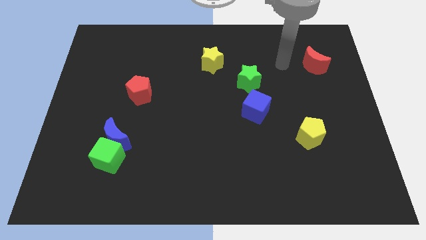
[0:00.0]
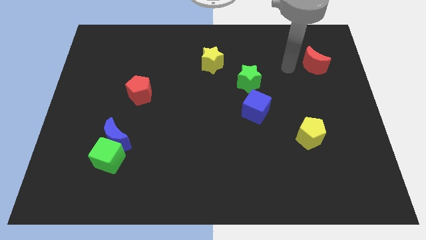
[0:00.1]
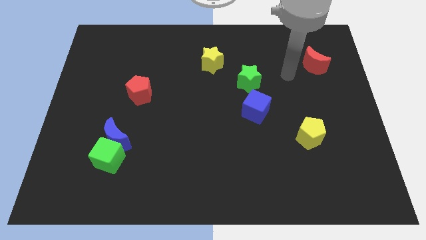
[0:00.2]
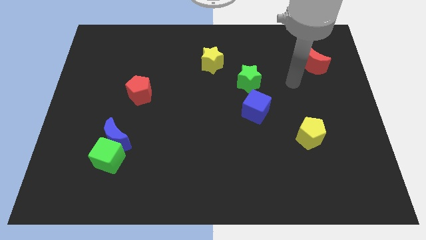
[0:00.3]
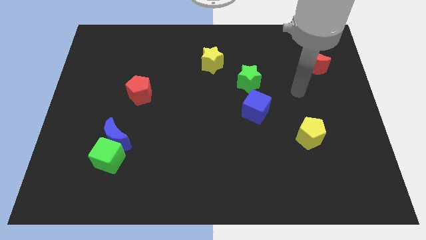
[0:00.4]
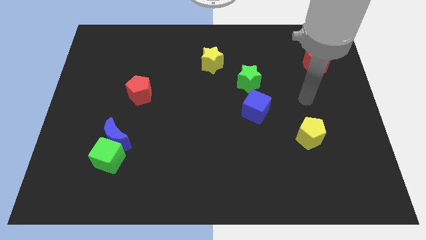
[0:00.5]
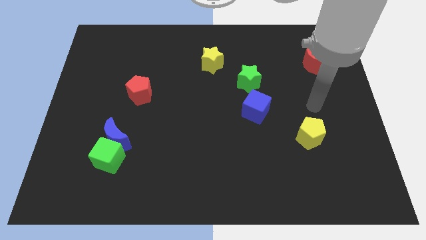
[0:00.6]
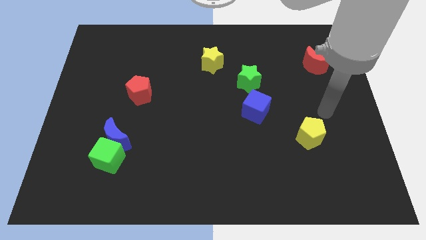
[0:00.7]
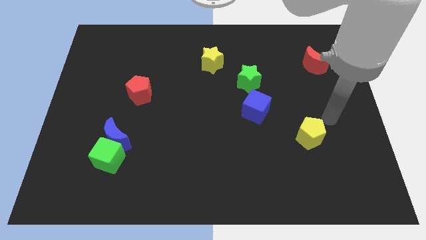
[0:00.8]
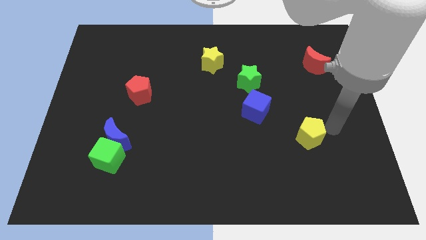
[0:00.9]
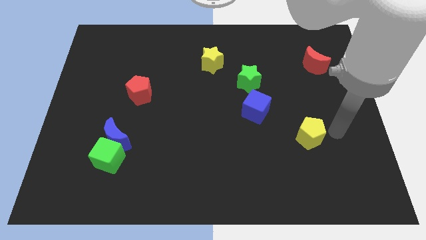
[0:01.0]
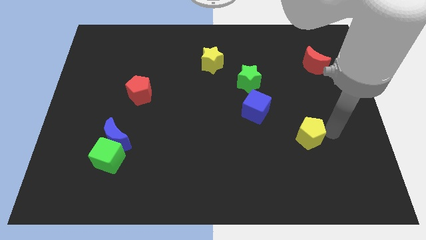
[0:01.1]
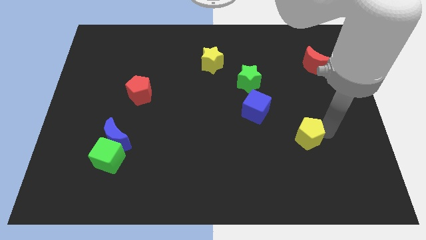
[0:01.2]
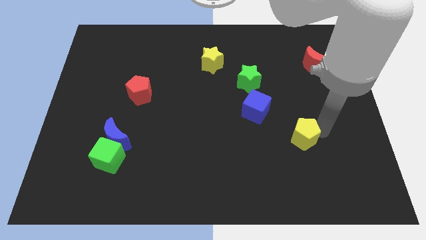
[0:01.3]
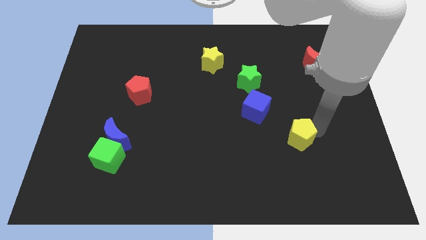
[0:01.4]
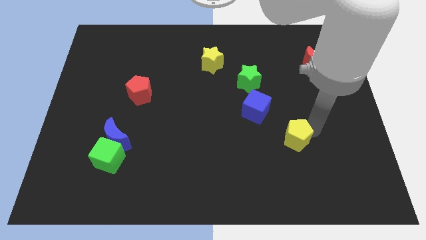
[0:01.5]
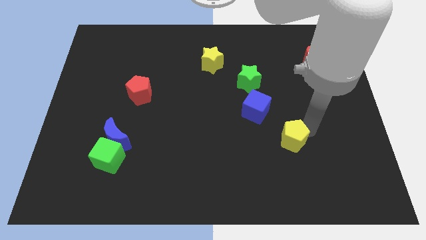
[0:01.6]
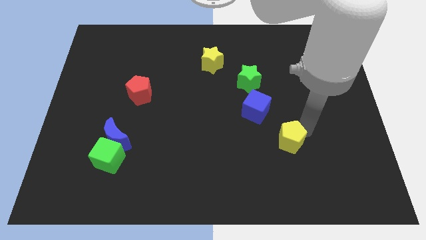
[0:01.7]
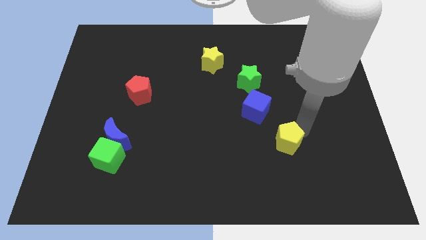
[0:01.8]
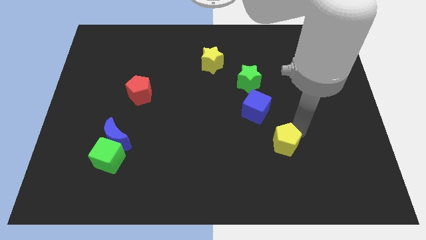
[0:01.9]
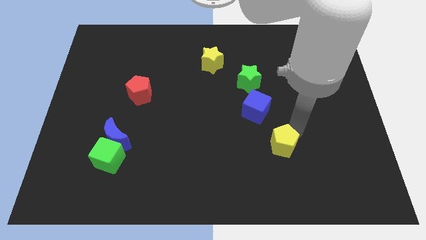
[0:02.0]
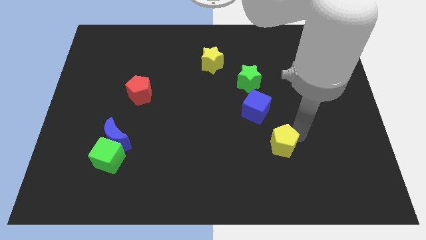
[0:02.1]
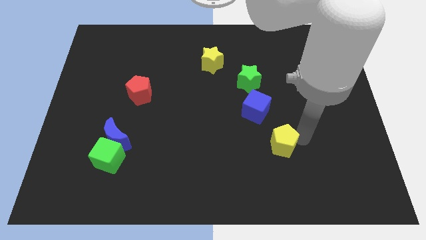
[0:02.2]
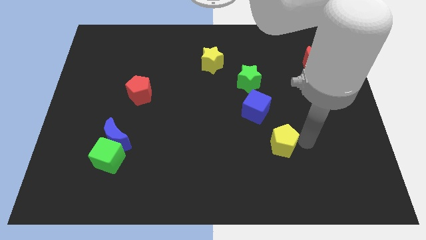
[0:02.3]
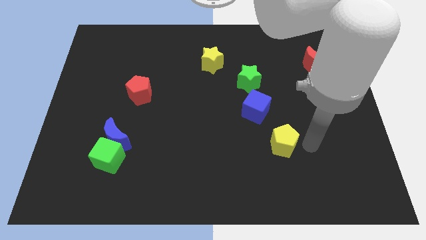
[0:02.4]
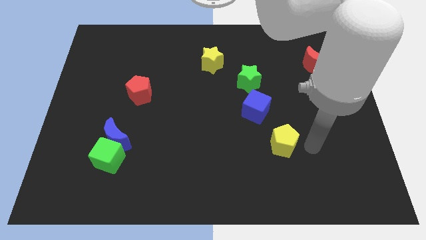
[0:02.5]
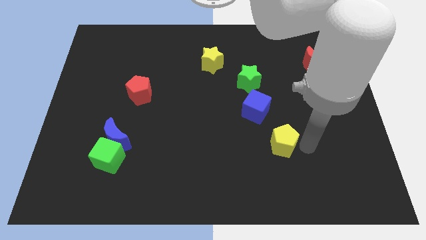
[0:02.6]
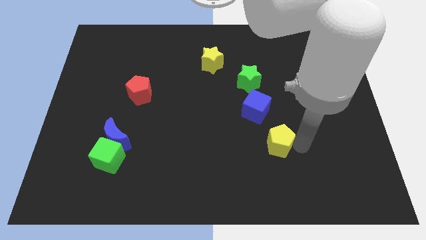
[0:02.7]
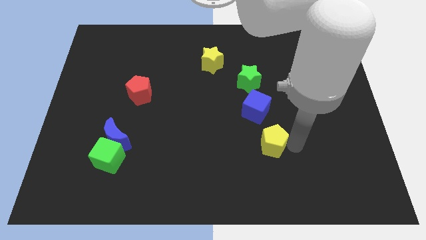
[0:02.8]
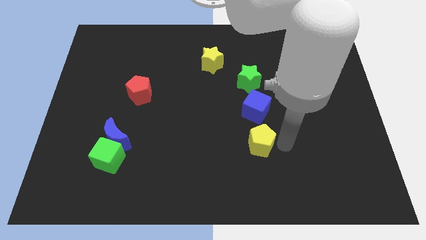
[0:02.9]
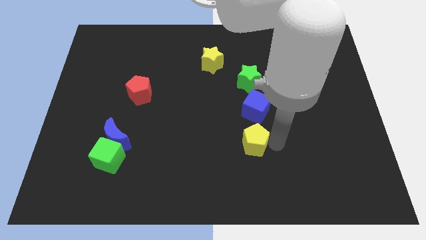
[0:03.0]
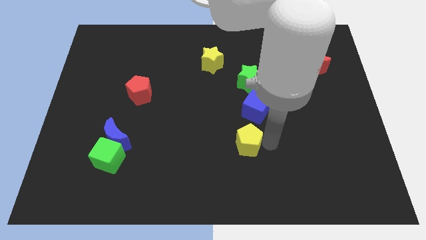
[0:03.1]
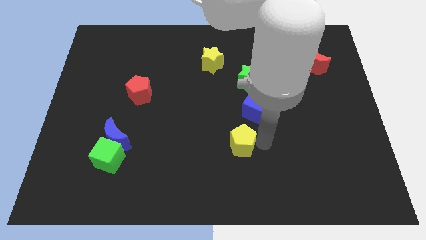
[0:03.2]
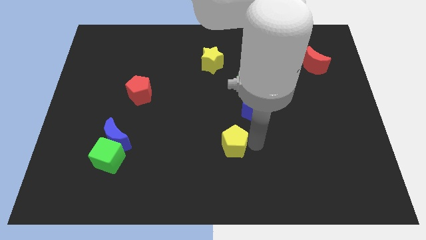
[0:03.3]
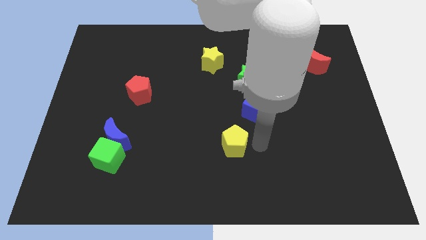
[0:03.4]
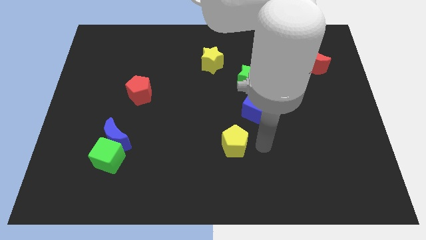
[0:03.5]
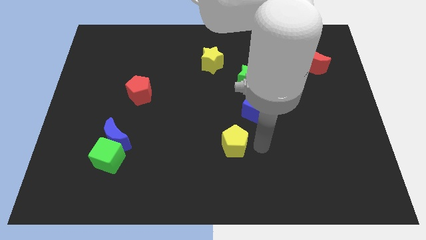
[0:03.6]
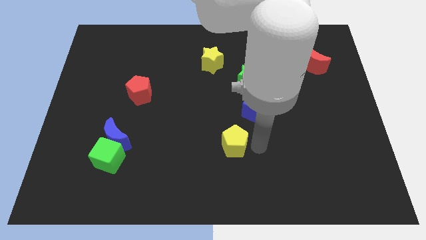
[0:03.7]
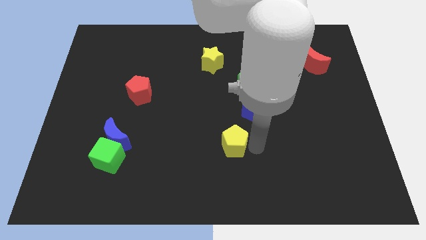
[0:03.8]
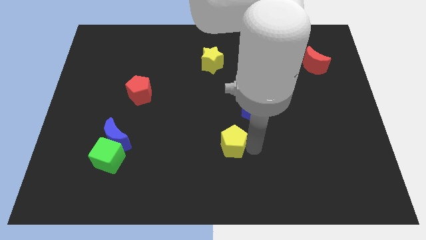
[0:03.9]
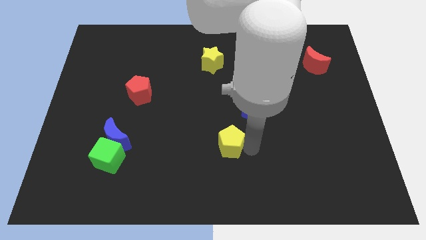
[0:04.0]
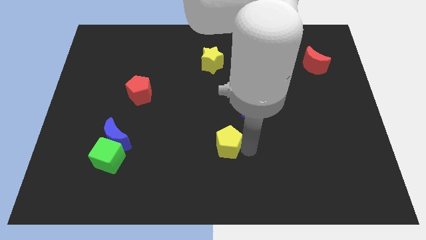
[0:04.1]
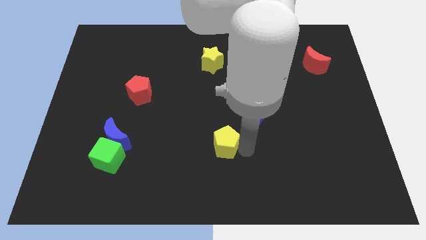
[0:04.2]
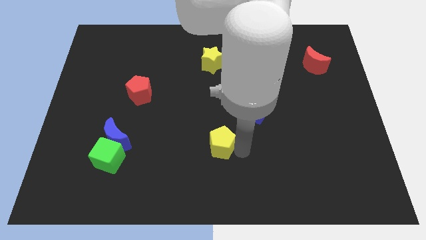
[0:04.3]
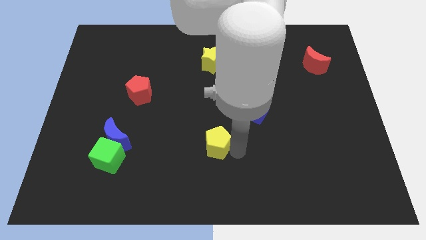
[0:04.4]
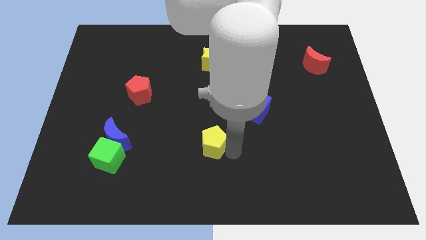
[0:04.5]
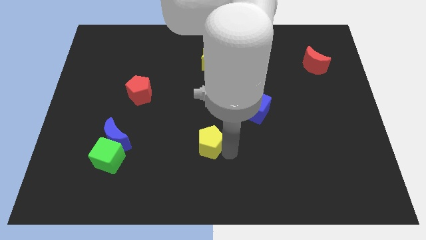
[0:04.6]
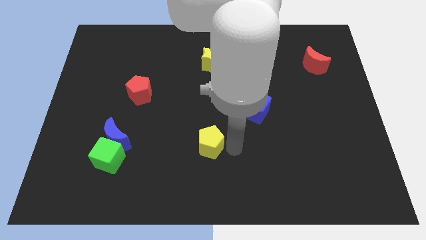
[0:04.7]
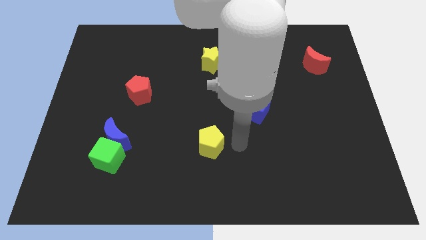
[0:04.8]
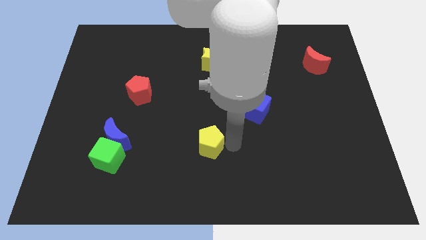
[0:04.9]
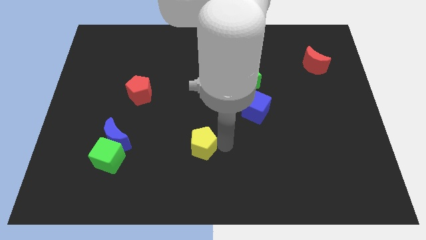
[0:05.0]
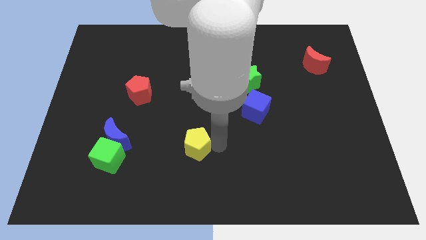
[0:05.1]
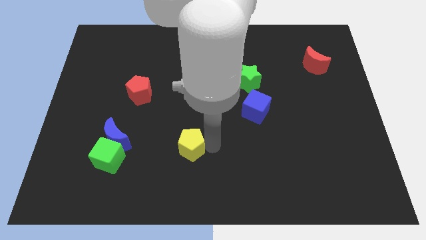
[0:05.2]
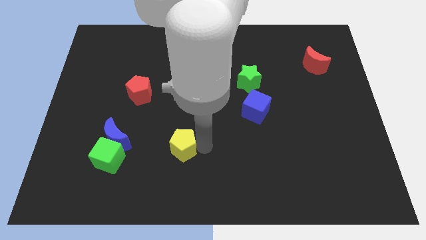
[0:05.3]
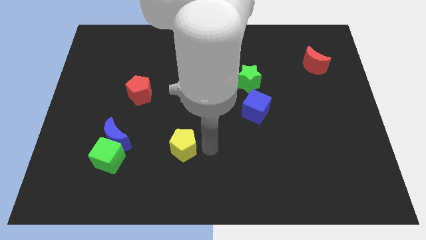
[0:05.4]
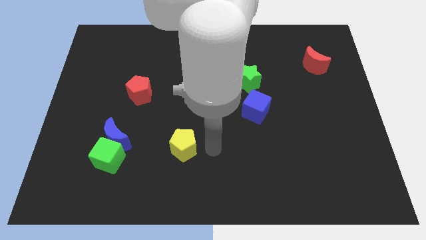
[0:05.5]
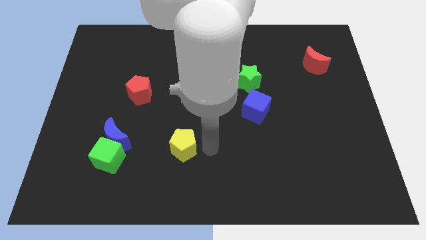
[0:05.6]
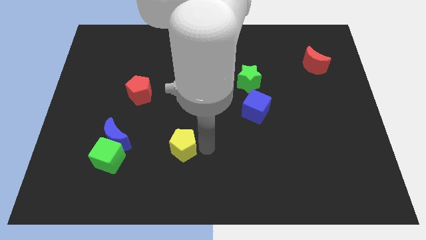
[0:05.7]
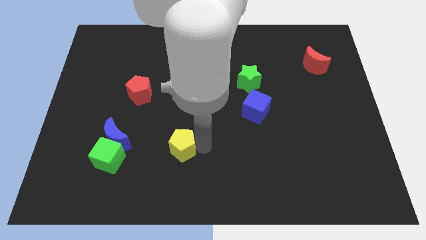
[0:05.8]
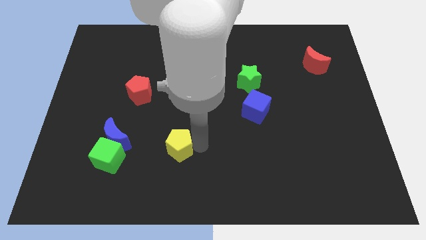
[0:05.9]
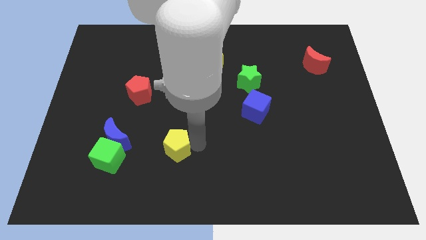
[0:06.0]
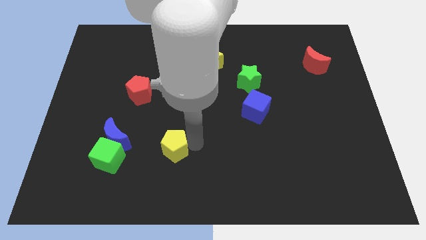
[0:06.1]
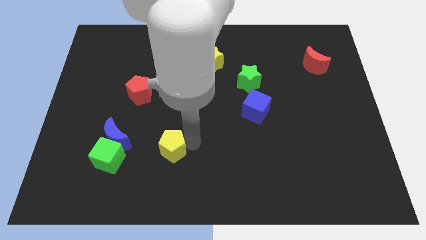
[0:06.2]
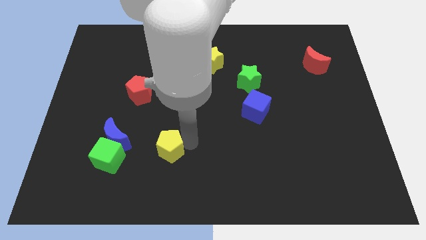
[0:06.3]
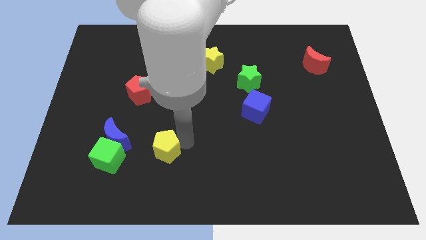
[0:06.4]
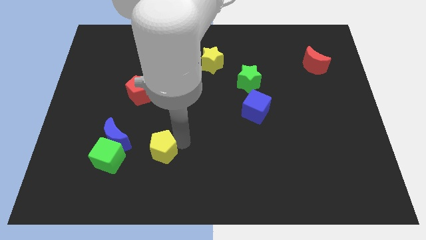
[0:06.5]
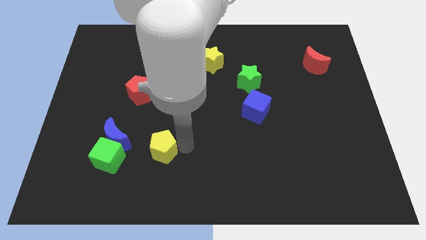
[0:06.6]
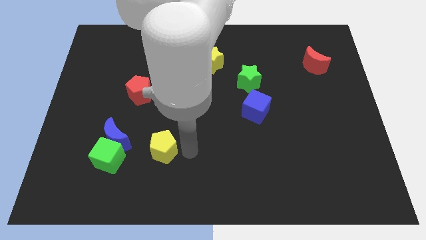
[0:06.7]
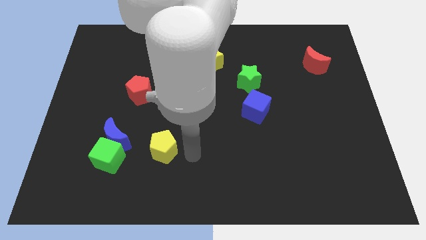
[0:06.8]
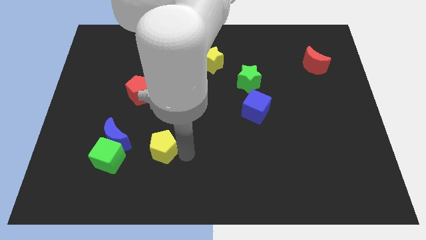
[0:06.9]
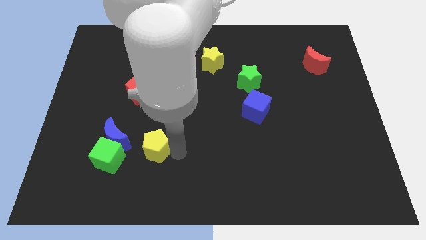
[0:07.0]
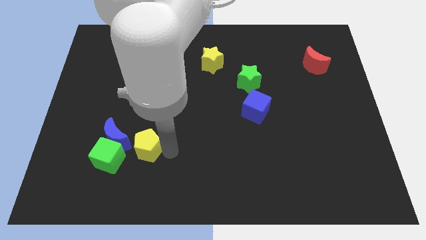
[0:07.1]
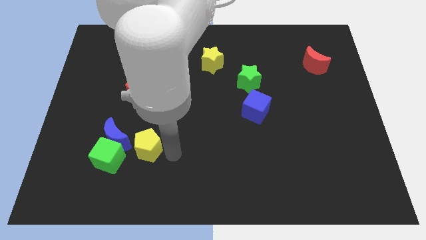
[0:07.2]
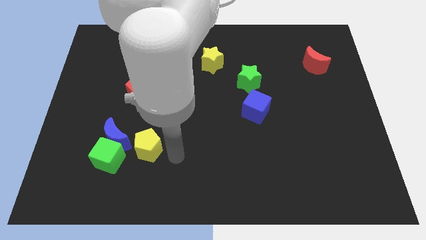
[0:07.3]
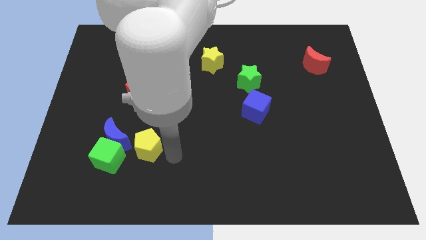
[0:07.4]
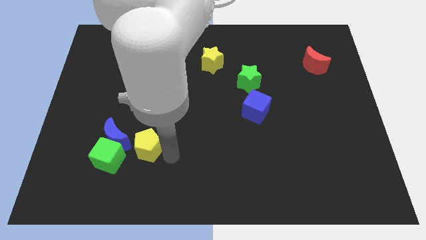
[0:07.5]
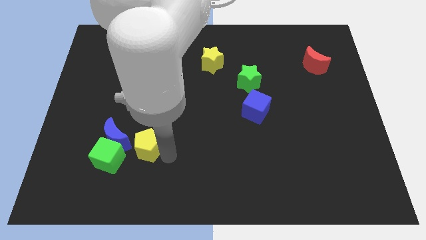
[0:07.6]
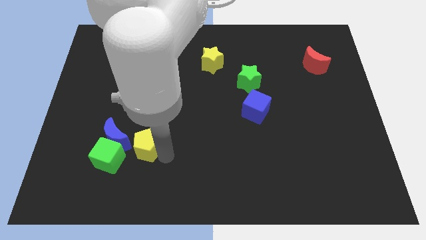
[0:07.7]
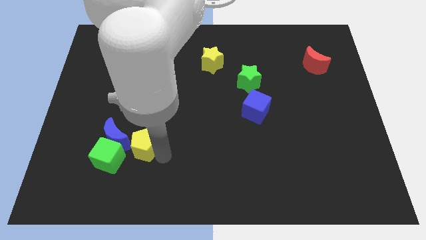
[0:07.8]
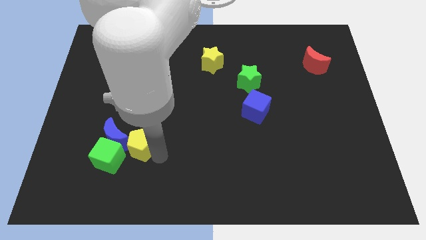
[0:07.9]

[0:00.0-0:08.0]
put the yellow pentagon towards the blue moon
